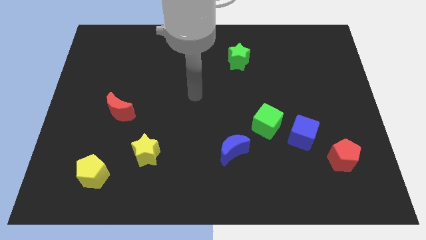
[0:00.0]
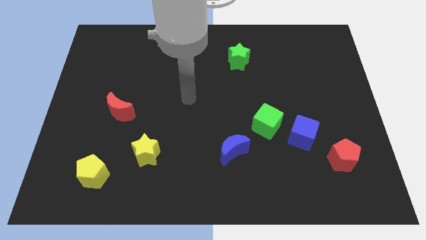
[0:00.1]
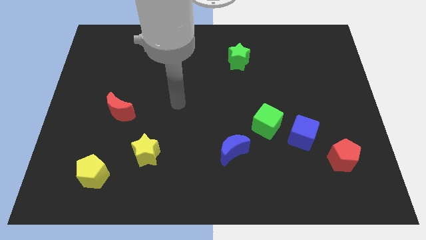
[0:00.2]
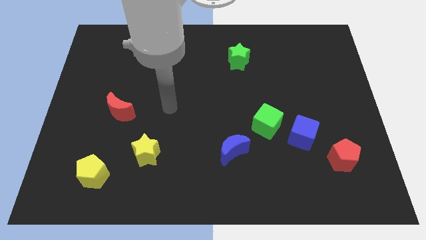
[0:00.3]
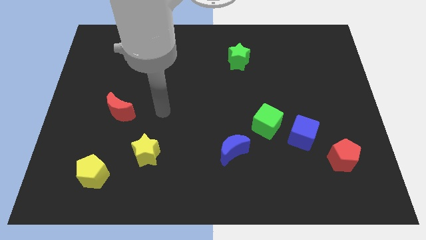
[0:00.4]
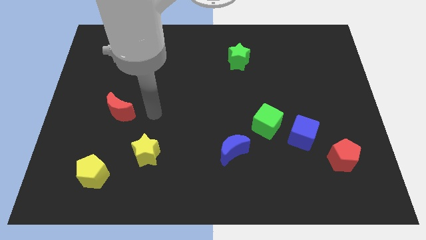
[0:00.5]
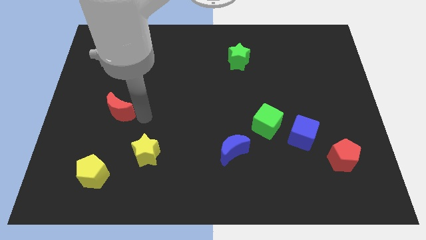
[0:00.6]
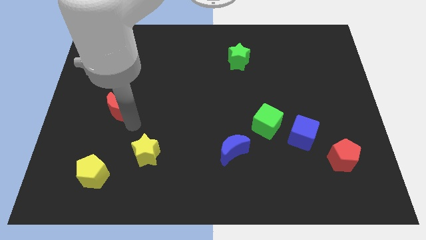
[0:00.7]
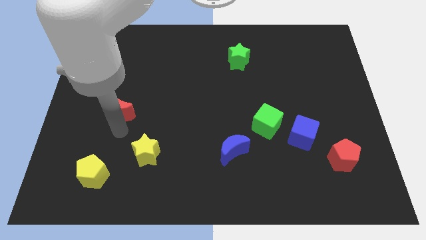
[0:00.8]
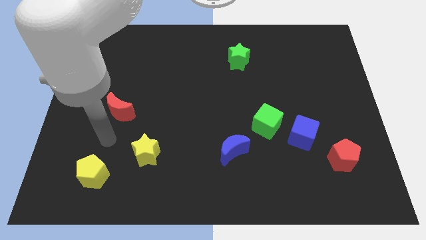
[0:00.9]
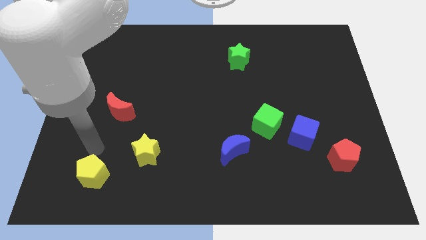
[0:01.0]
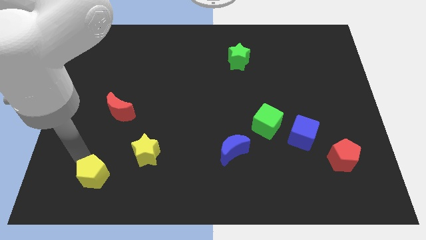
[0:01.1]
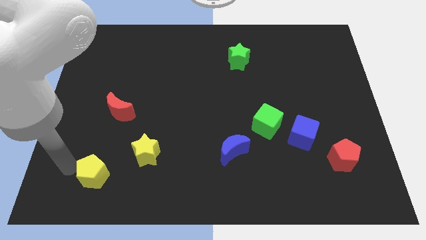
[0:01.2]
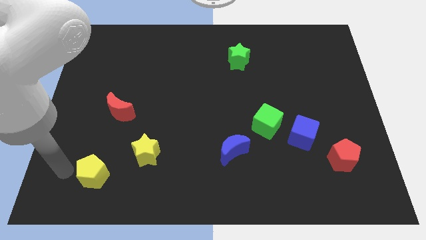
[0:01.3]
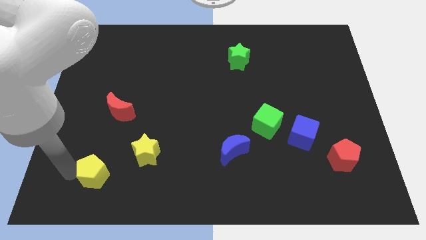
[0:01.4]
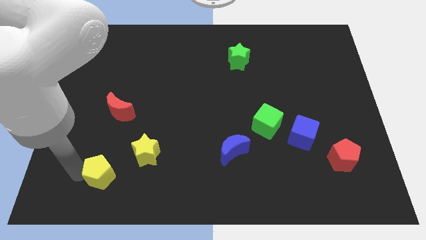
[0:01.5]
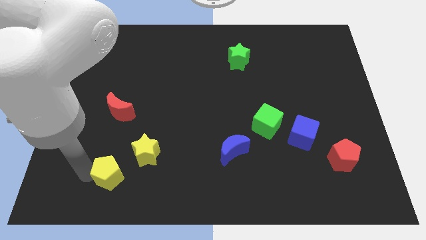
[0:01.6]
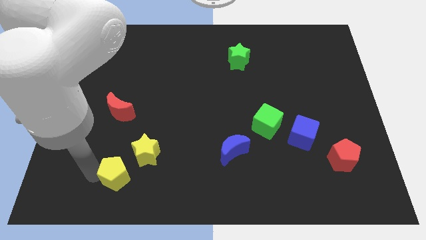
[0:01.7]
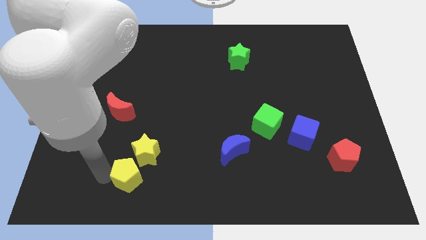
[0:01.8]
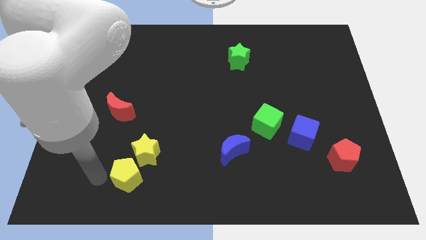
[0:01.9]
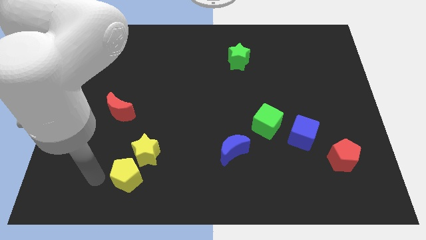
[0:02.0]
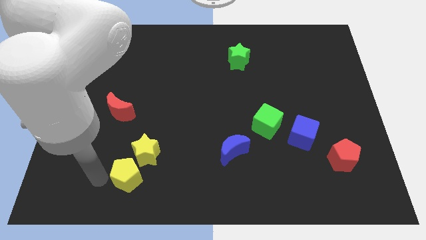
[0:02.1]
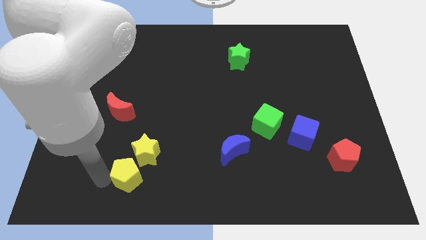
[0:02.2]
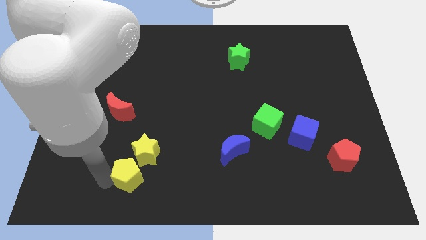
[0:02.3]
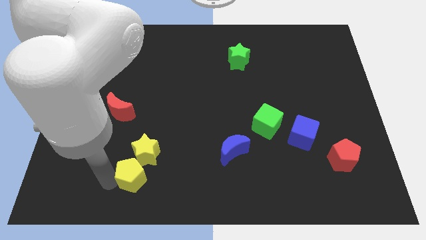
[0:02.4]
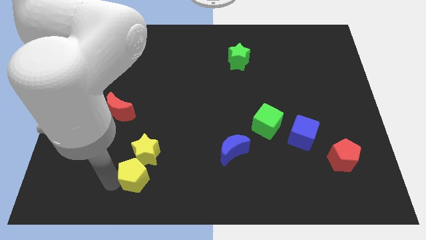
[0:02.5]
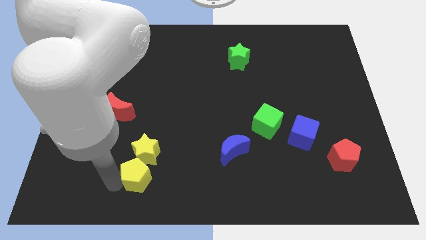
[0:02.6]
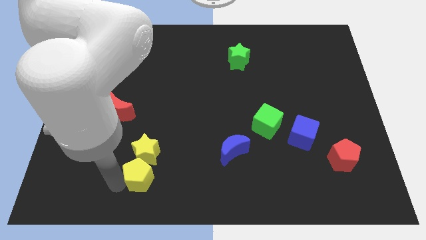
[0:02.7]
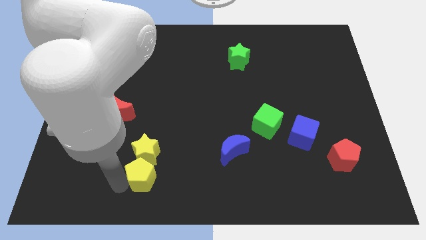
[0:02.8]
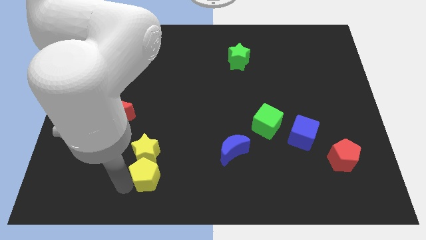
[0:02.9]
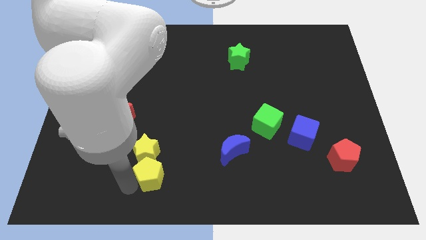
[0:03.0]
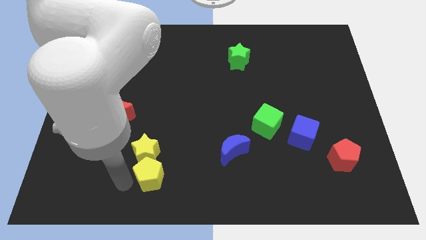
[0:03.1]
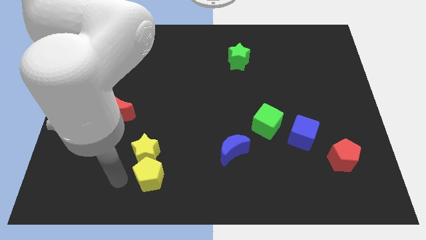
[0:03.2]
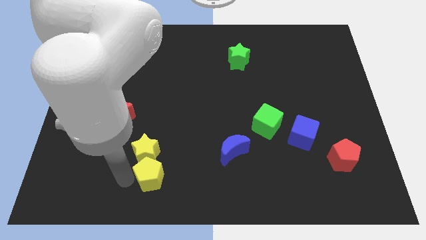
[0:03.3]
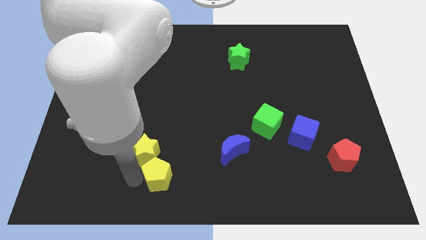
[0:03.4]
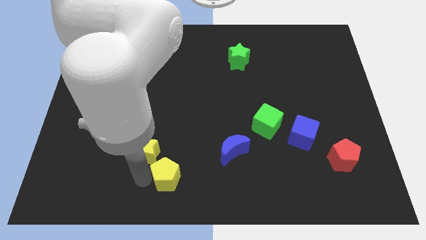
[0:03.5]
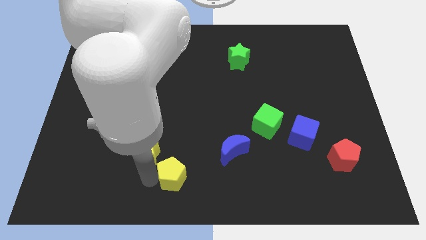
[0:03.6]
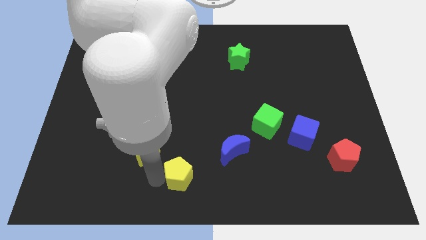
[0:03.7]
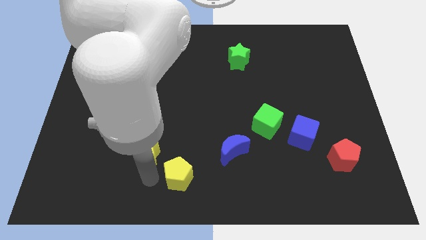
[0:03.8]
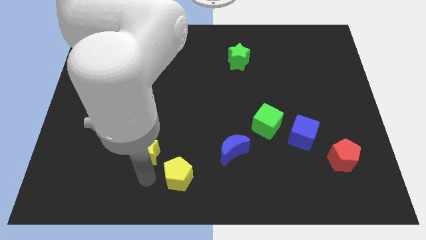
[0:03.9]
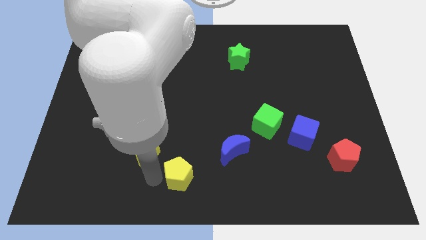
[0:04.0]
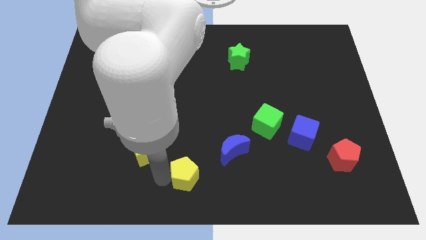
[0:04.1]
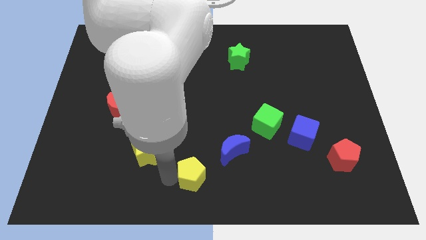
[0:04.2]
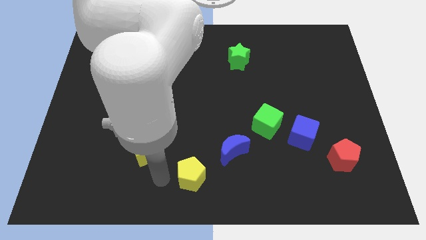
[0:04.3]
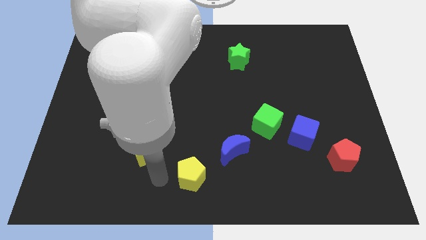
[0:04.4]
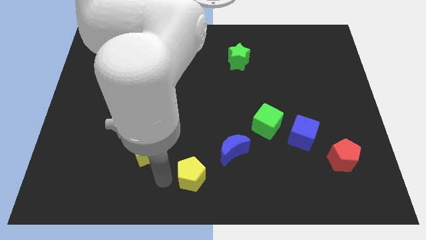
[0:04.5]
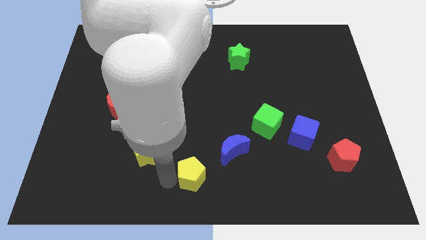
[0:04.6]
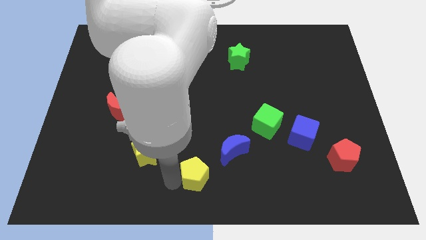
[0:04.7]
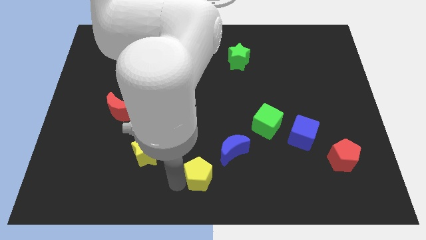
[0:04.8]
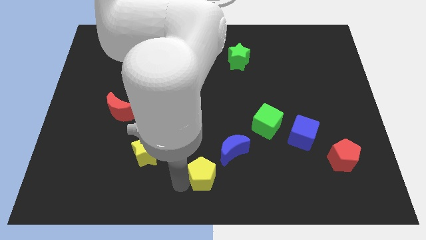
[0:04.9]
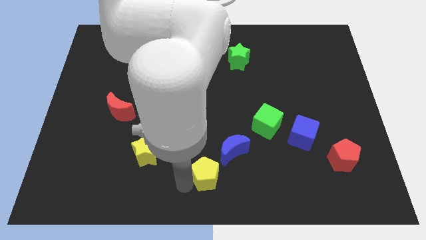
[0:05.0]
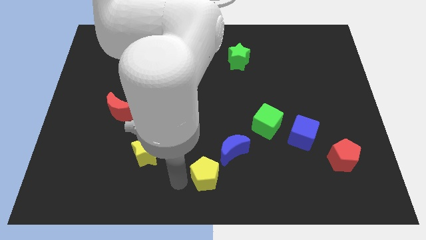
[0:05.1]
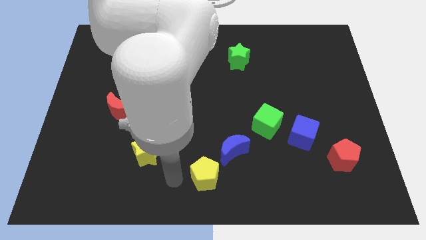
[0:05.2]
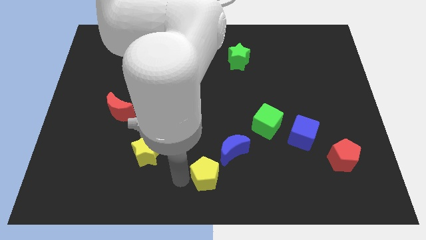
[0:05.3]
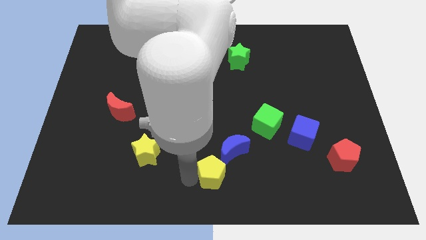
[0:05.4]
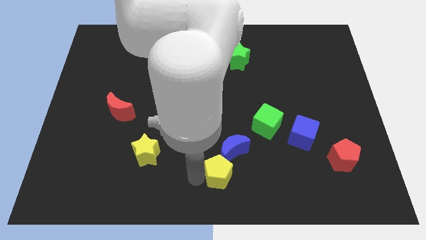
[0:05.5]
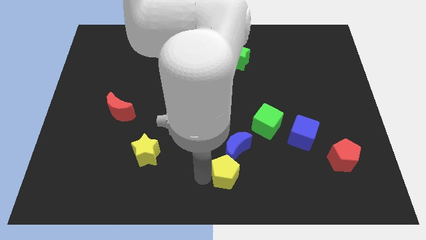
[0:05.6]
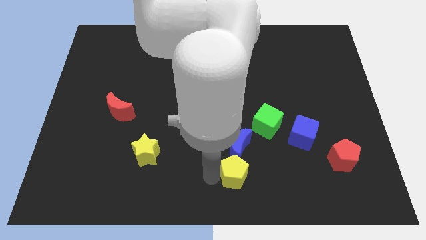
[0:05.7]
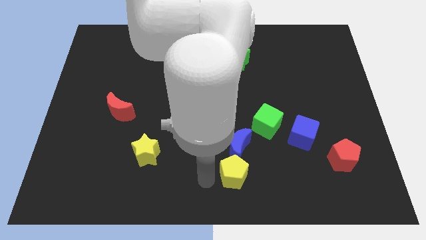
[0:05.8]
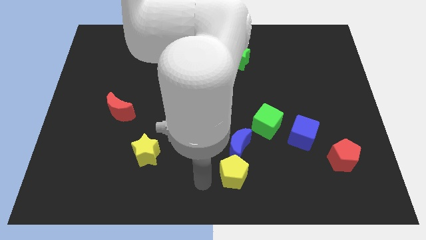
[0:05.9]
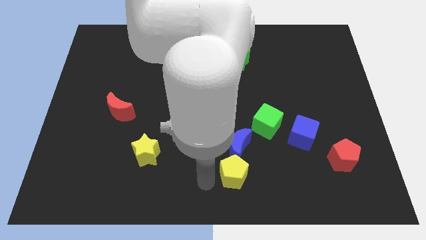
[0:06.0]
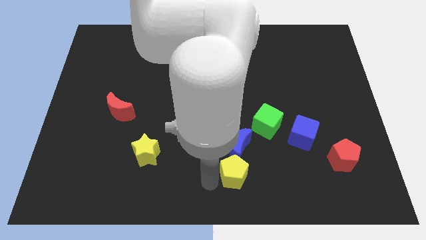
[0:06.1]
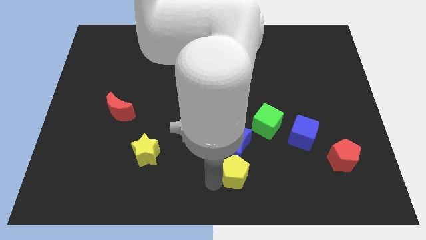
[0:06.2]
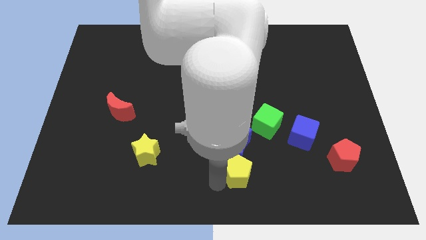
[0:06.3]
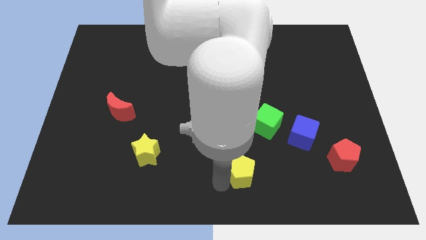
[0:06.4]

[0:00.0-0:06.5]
put the yellow pentagon diagonally down and to the right of the blue moon

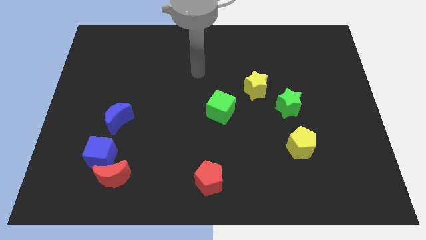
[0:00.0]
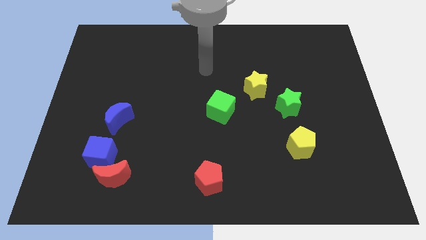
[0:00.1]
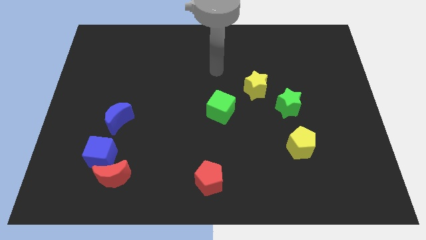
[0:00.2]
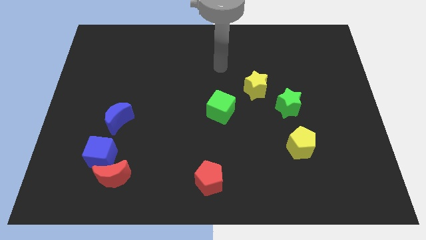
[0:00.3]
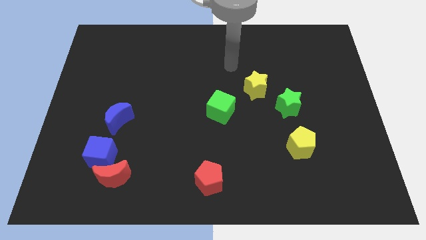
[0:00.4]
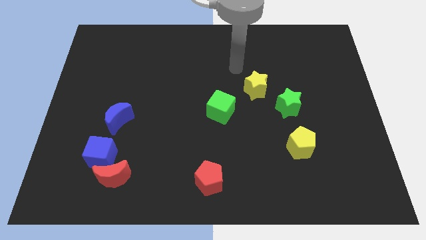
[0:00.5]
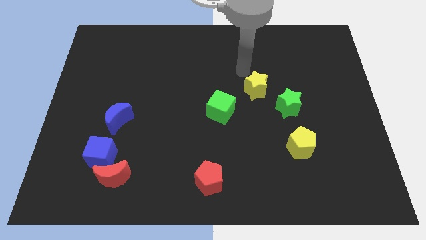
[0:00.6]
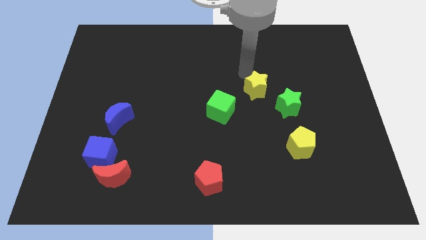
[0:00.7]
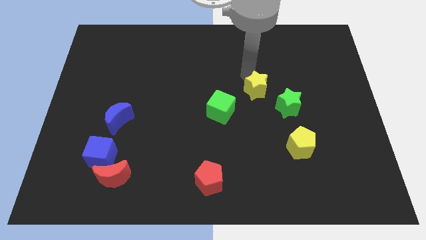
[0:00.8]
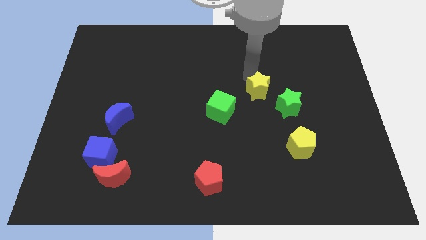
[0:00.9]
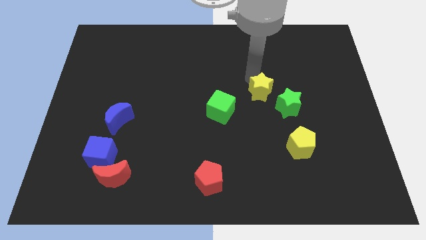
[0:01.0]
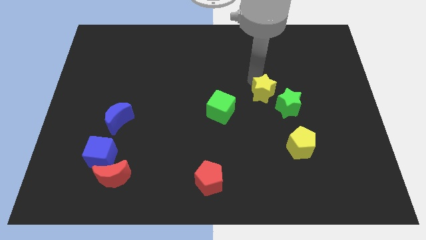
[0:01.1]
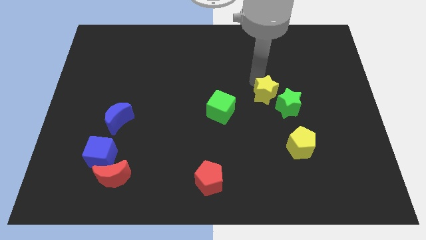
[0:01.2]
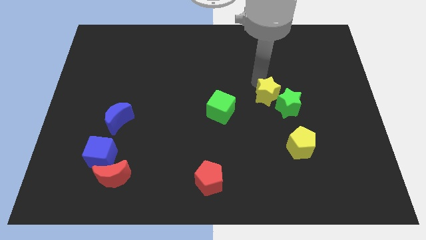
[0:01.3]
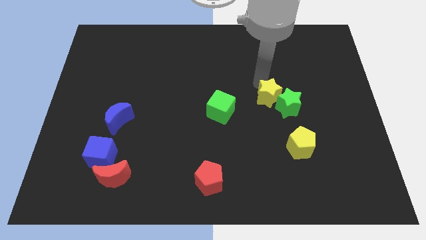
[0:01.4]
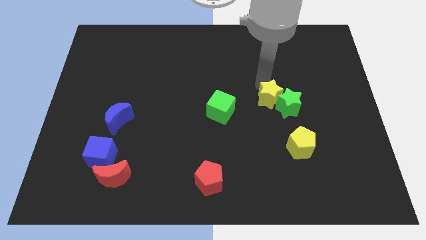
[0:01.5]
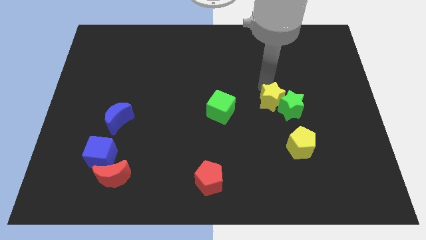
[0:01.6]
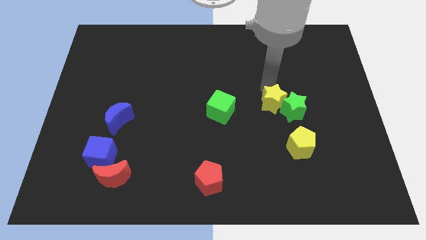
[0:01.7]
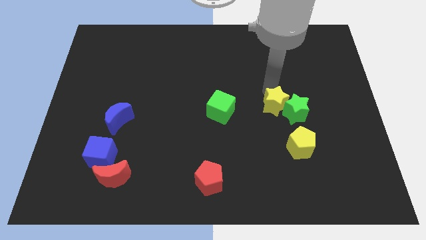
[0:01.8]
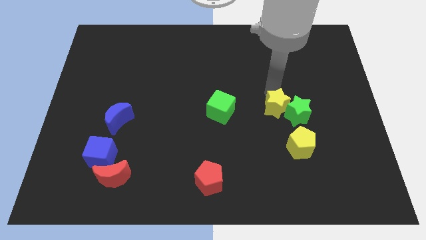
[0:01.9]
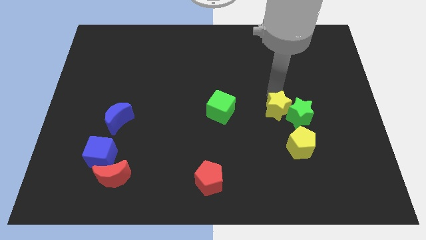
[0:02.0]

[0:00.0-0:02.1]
push the yellow star to the top left side of the yellow pentagon
